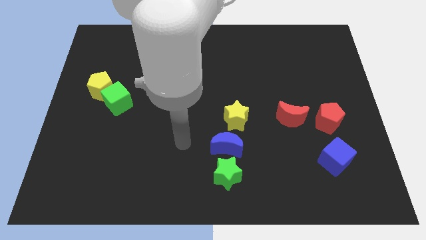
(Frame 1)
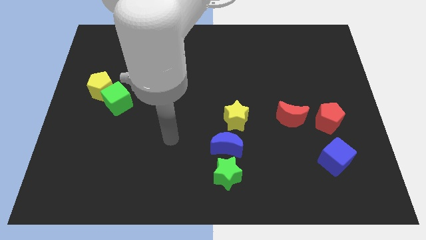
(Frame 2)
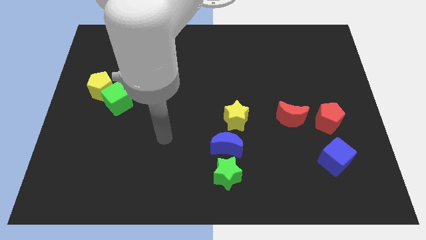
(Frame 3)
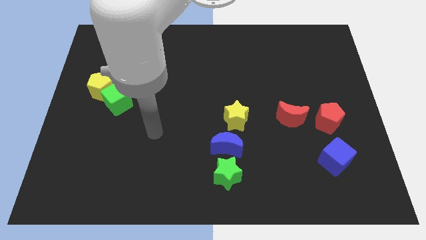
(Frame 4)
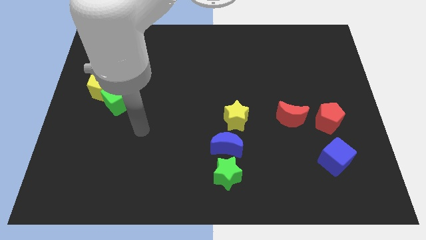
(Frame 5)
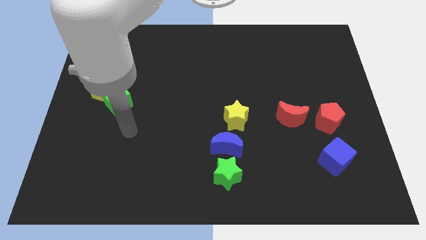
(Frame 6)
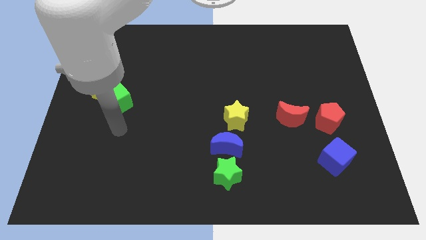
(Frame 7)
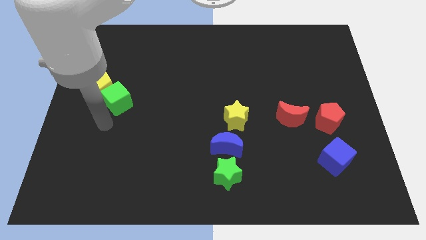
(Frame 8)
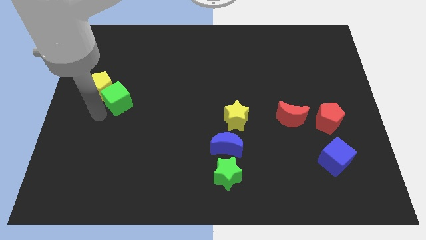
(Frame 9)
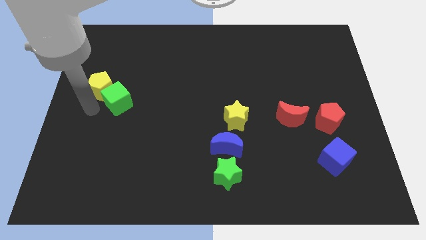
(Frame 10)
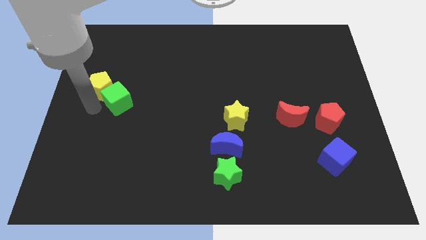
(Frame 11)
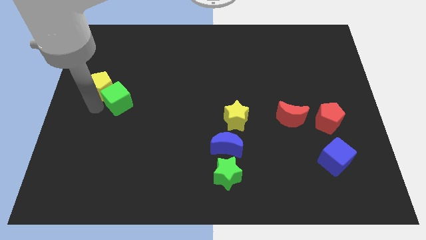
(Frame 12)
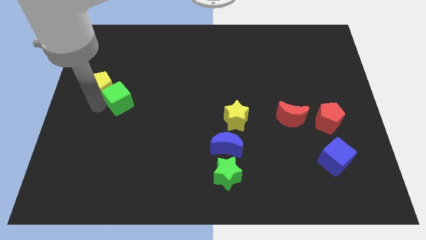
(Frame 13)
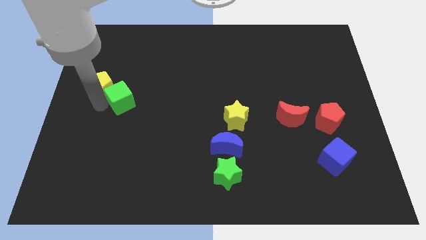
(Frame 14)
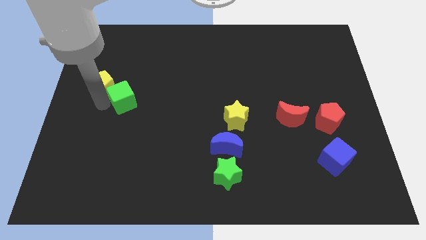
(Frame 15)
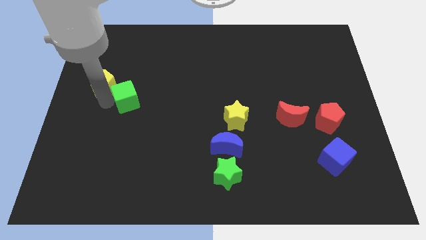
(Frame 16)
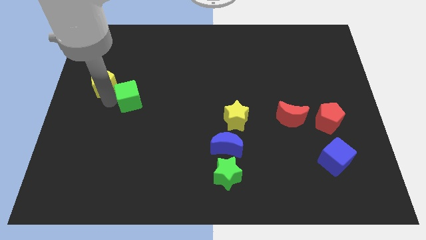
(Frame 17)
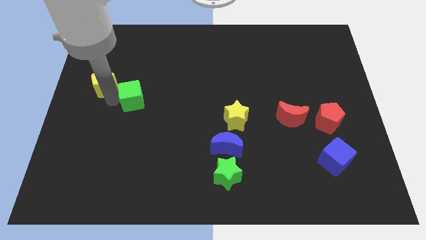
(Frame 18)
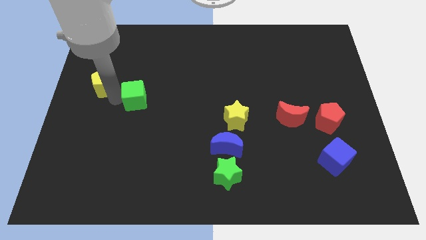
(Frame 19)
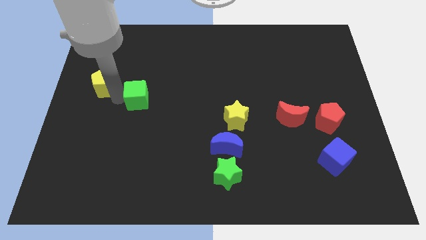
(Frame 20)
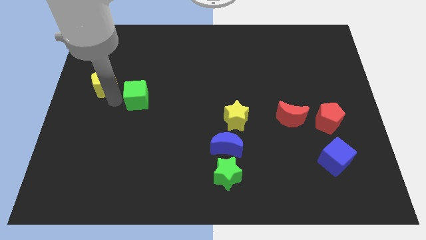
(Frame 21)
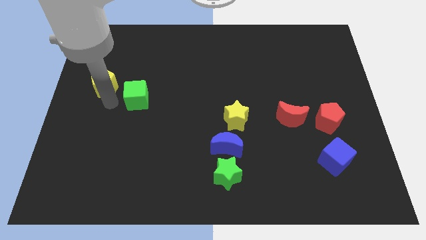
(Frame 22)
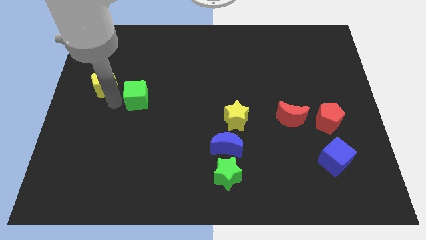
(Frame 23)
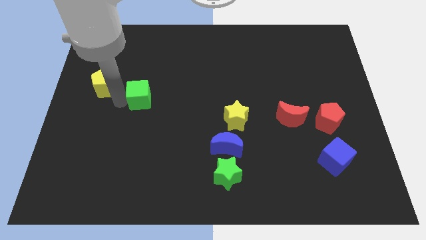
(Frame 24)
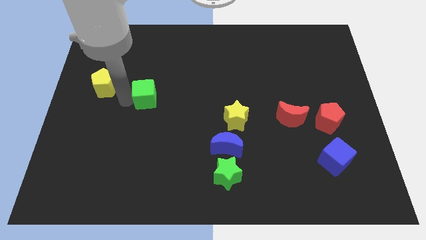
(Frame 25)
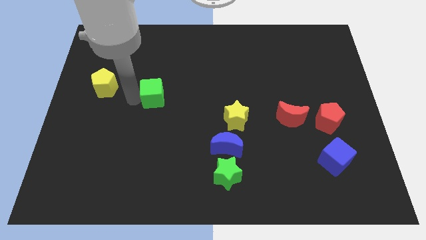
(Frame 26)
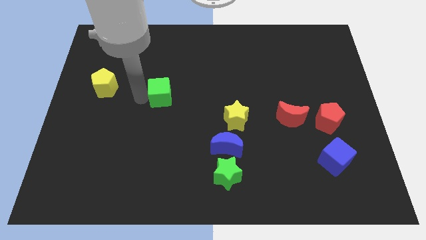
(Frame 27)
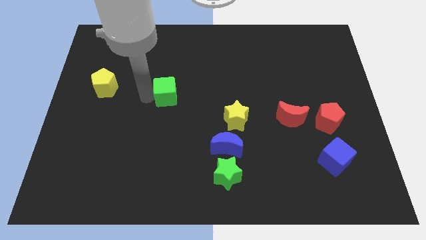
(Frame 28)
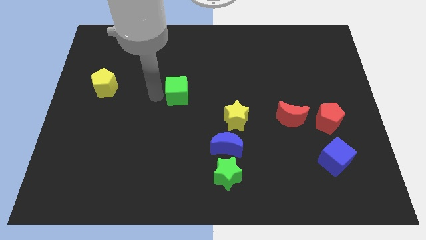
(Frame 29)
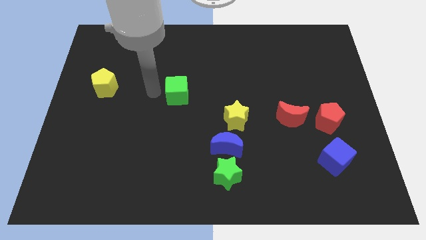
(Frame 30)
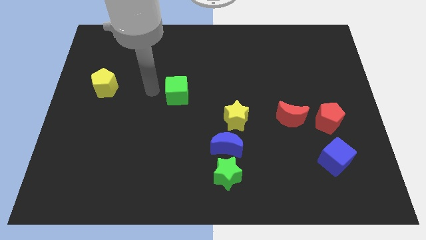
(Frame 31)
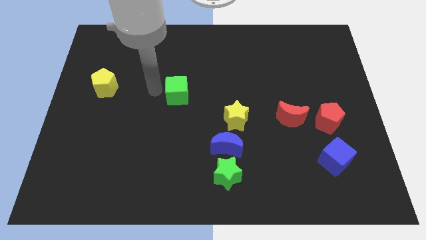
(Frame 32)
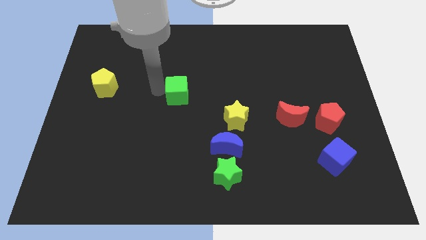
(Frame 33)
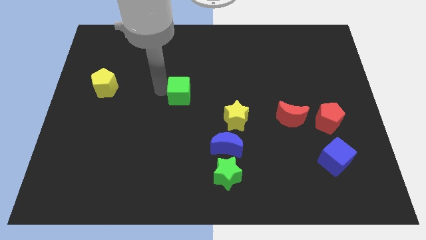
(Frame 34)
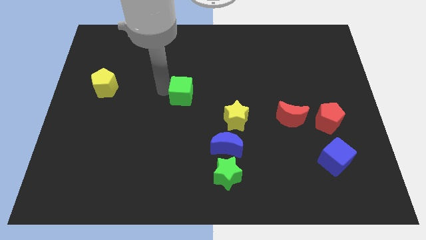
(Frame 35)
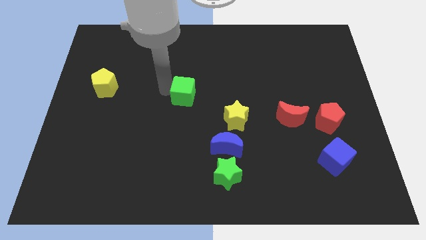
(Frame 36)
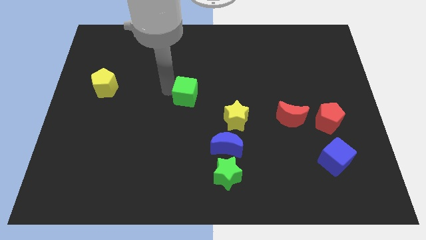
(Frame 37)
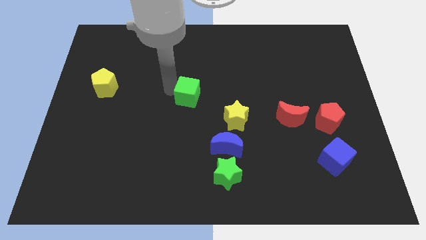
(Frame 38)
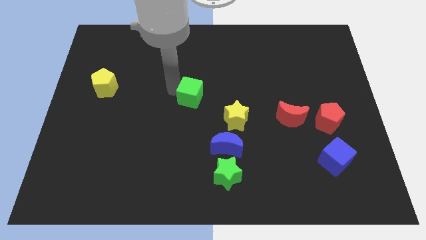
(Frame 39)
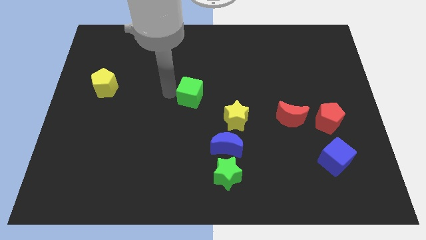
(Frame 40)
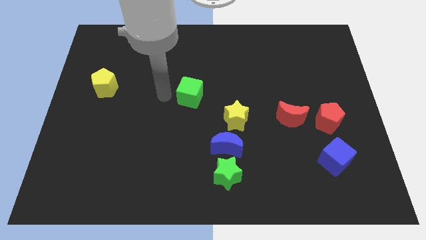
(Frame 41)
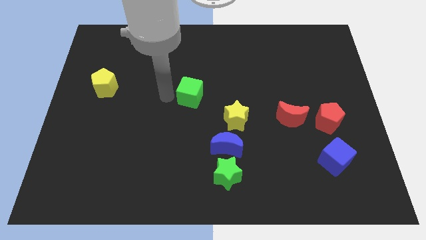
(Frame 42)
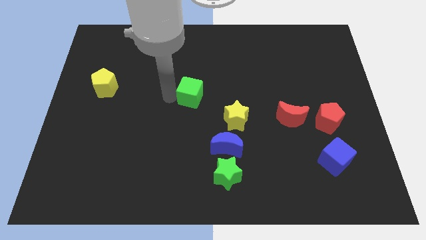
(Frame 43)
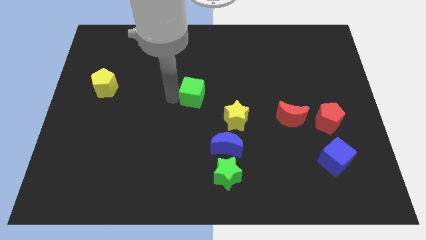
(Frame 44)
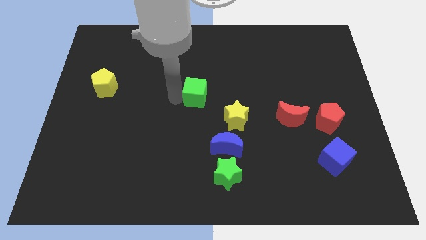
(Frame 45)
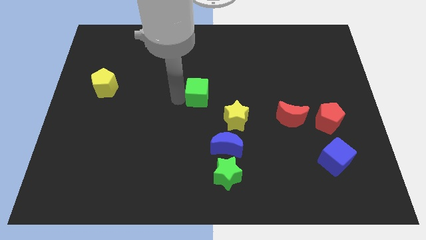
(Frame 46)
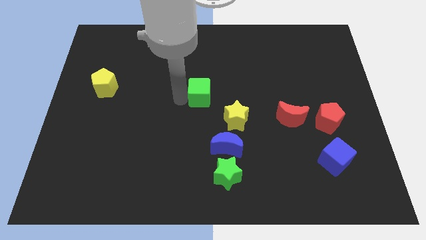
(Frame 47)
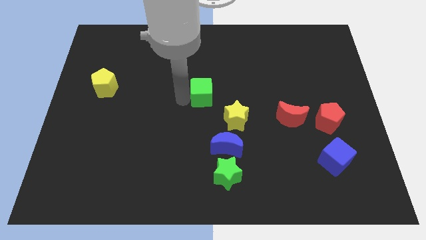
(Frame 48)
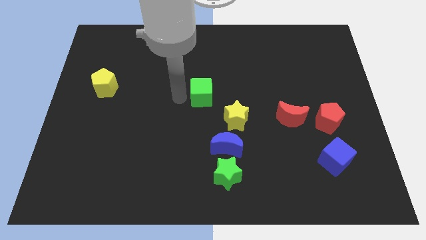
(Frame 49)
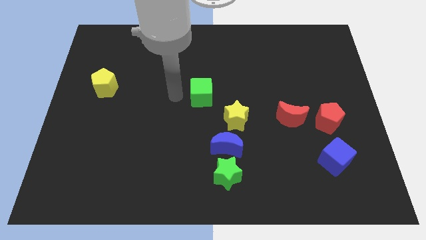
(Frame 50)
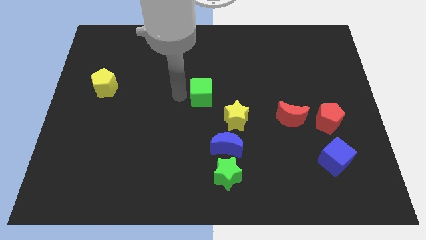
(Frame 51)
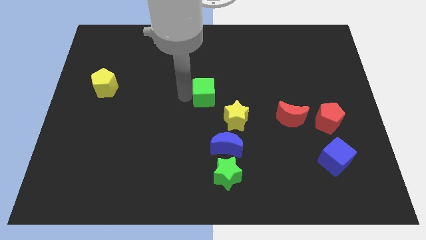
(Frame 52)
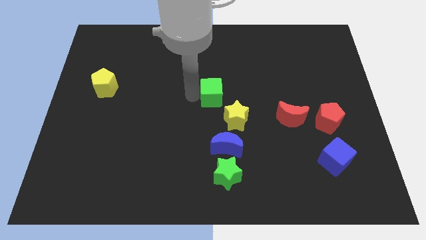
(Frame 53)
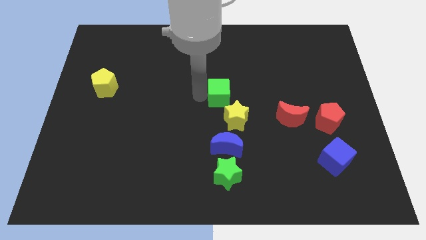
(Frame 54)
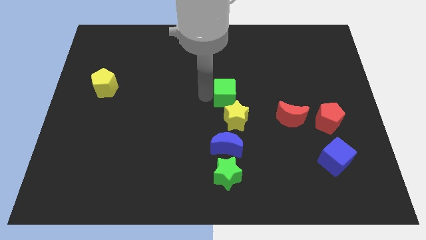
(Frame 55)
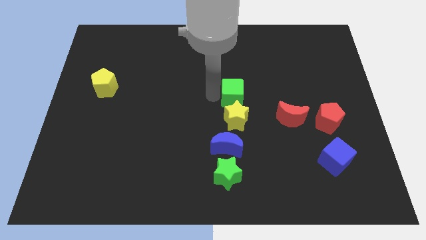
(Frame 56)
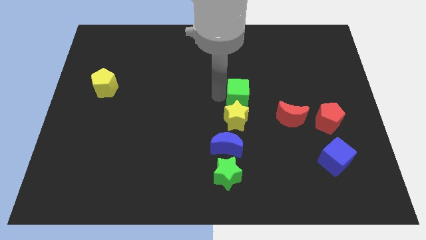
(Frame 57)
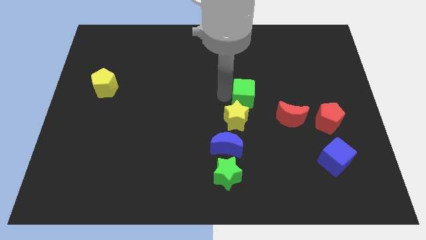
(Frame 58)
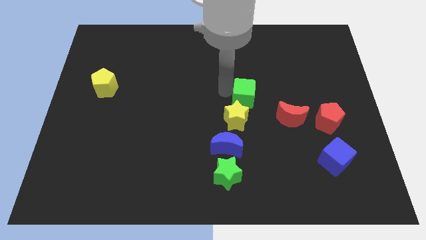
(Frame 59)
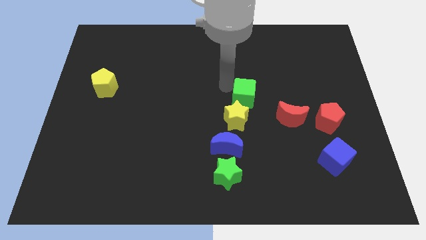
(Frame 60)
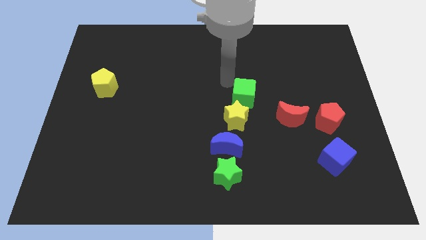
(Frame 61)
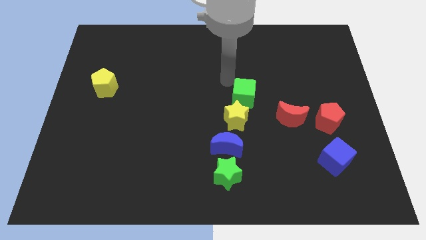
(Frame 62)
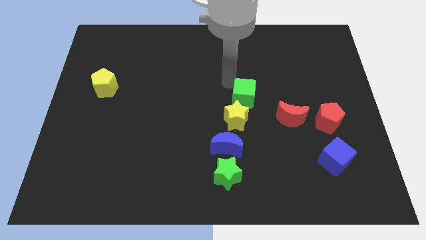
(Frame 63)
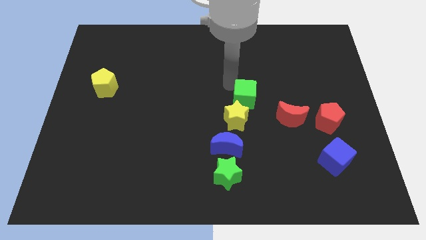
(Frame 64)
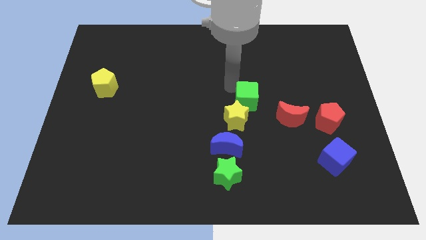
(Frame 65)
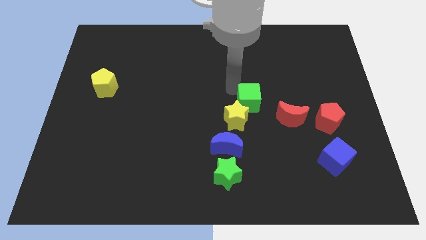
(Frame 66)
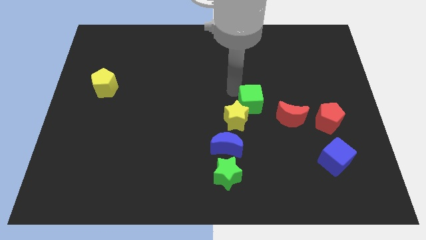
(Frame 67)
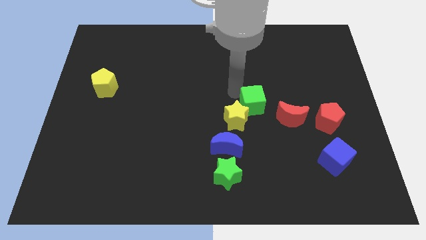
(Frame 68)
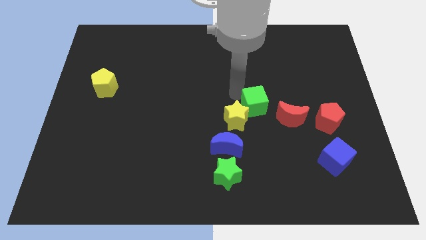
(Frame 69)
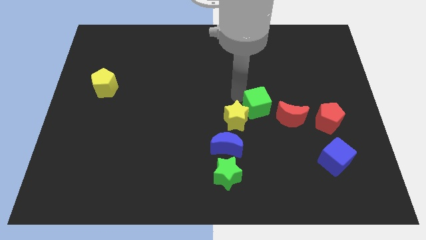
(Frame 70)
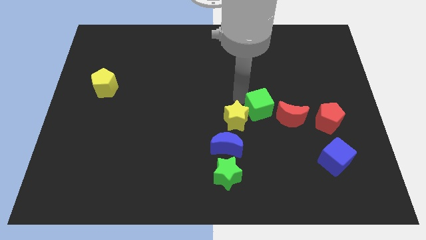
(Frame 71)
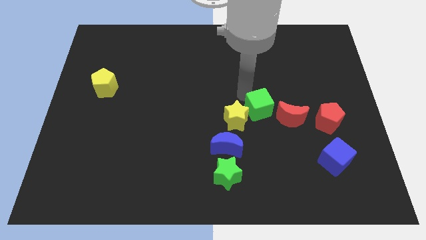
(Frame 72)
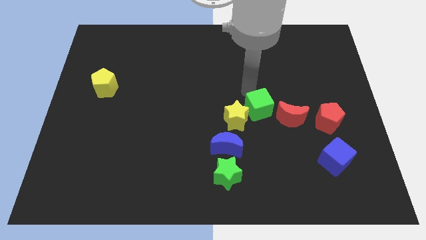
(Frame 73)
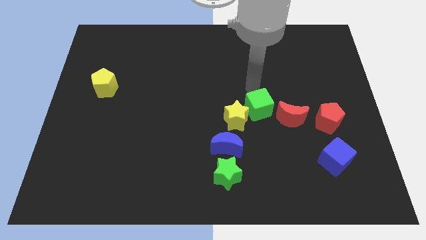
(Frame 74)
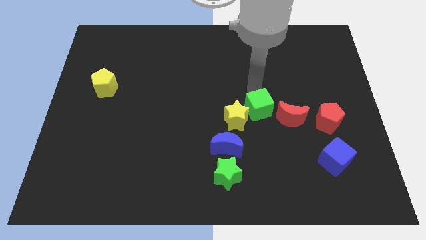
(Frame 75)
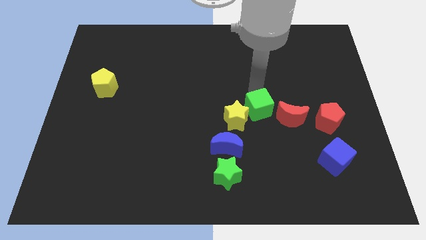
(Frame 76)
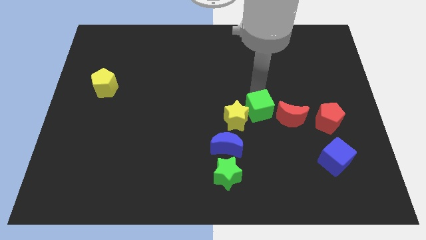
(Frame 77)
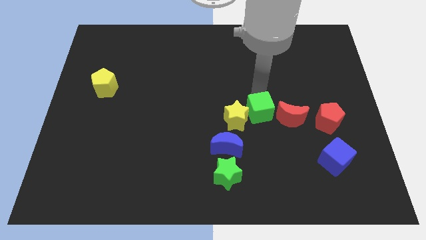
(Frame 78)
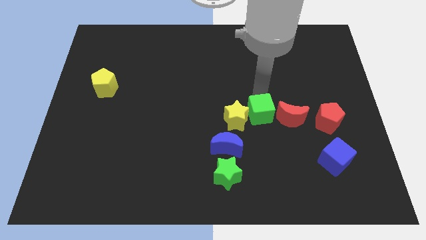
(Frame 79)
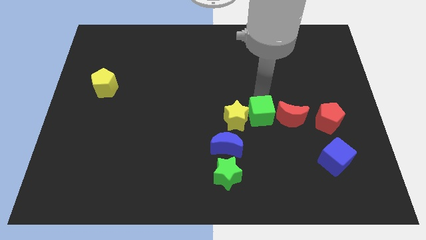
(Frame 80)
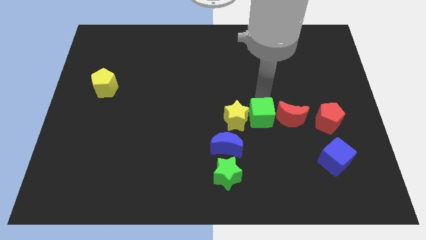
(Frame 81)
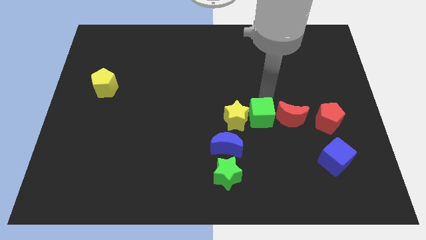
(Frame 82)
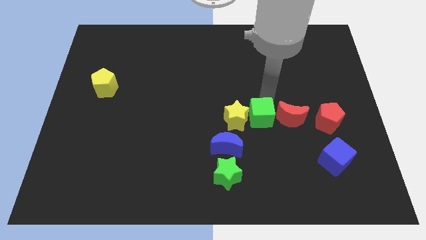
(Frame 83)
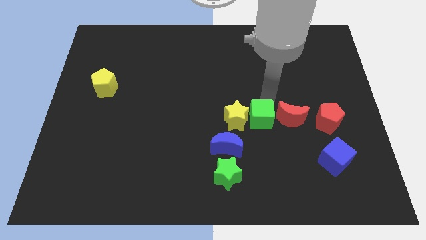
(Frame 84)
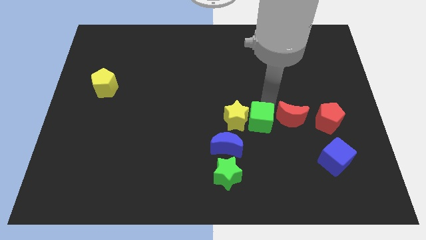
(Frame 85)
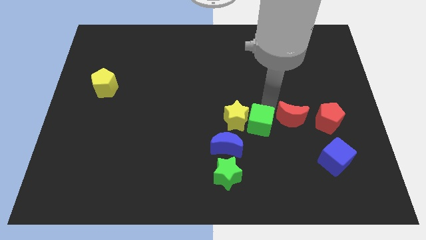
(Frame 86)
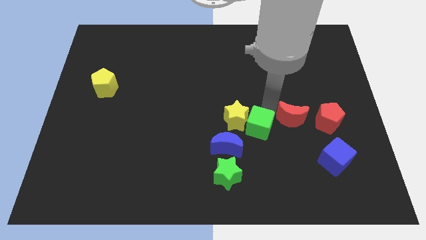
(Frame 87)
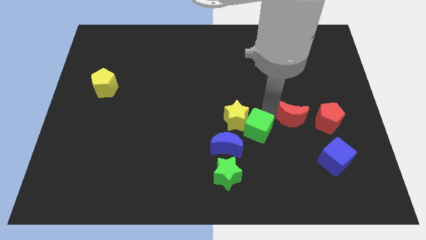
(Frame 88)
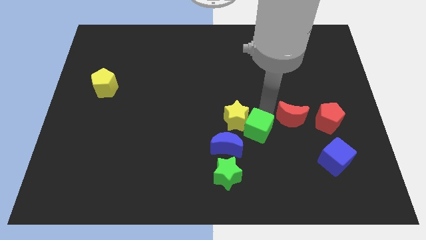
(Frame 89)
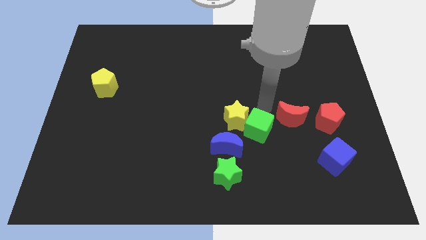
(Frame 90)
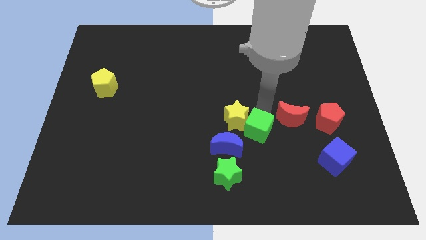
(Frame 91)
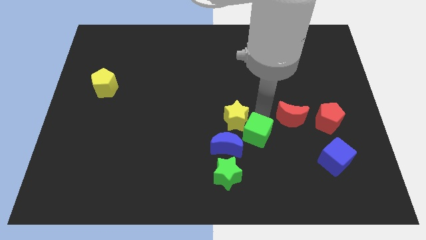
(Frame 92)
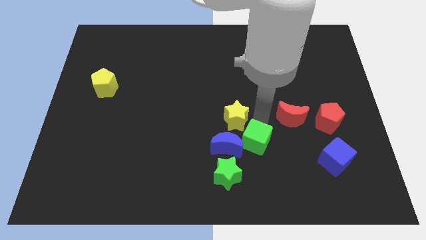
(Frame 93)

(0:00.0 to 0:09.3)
slide the green cube to the top right side of the green star
